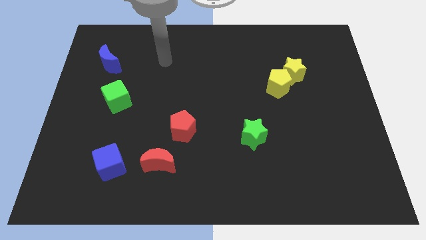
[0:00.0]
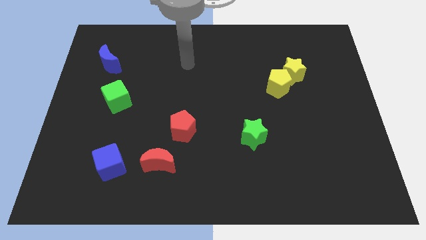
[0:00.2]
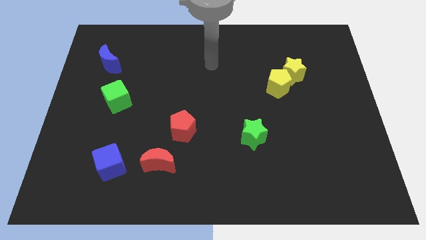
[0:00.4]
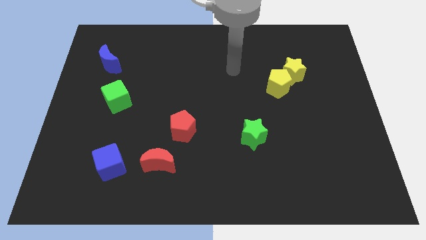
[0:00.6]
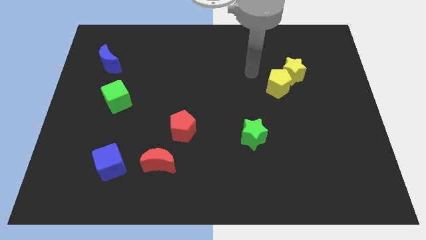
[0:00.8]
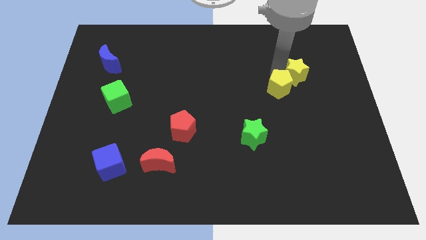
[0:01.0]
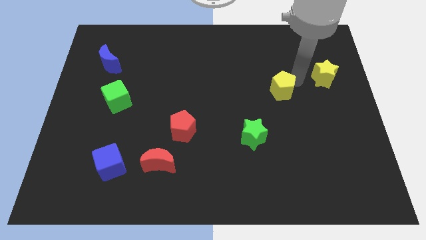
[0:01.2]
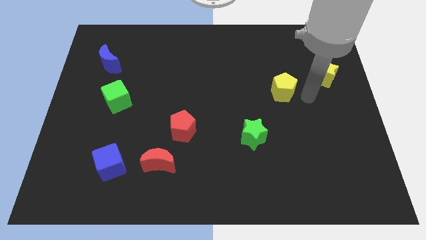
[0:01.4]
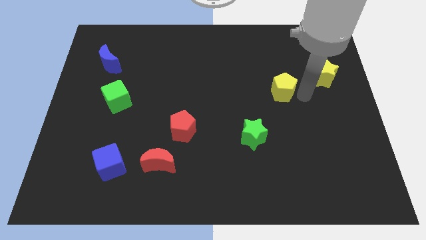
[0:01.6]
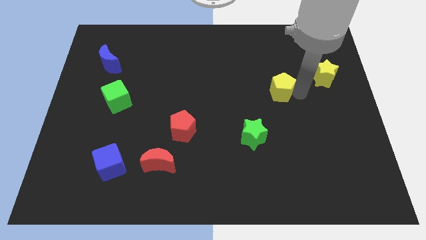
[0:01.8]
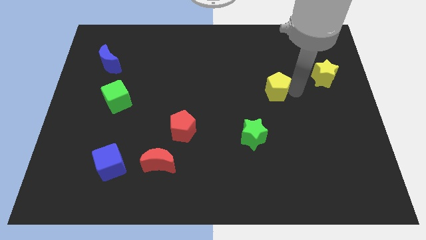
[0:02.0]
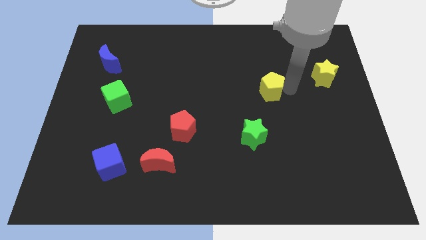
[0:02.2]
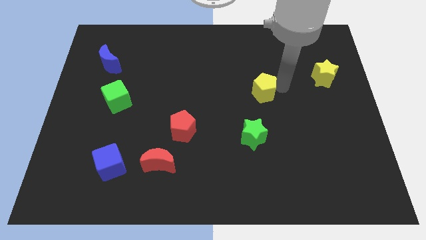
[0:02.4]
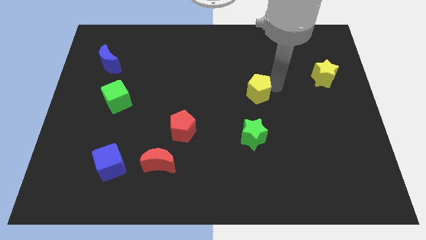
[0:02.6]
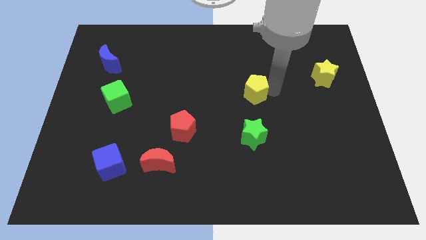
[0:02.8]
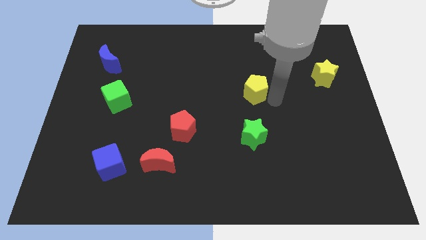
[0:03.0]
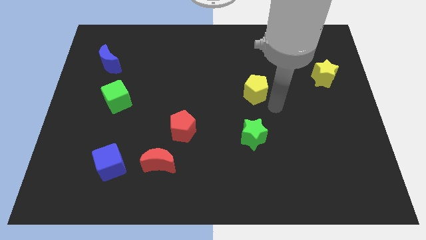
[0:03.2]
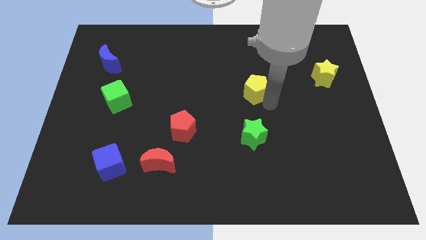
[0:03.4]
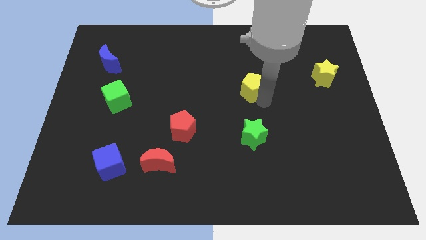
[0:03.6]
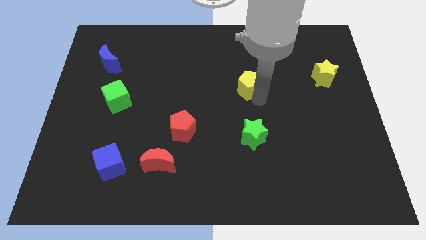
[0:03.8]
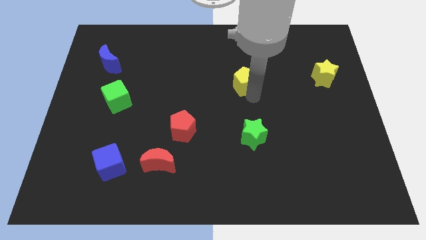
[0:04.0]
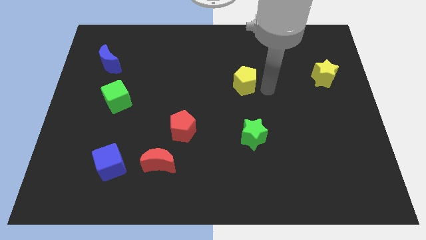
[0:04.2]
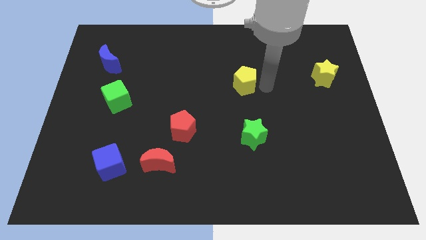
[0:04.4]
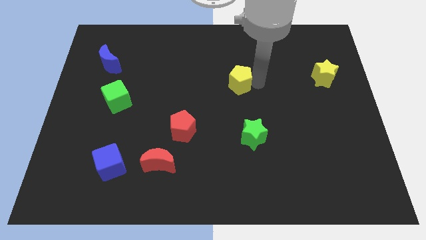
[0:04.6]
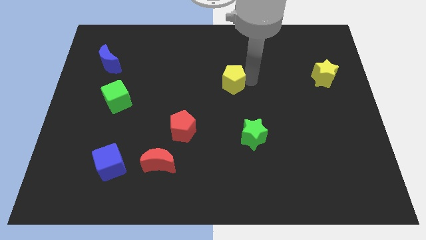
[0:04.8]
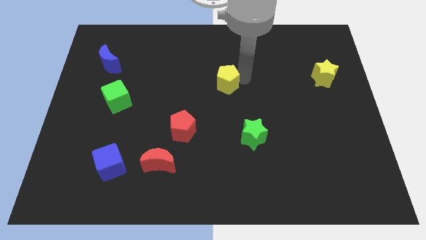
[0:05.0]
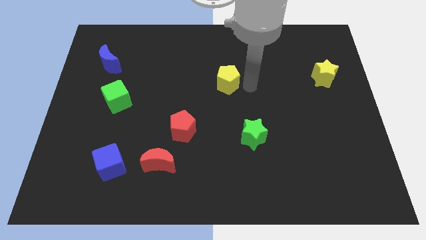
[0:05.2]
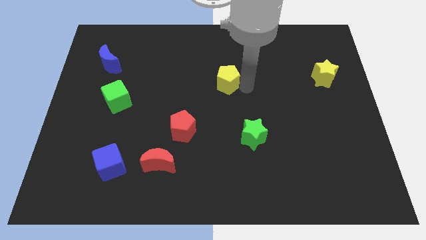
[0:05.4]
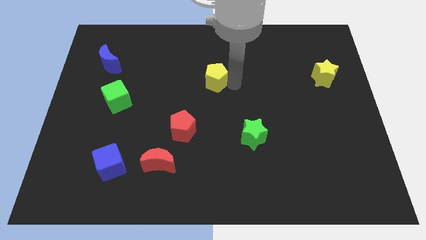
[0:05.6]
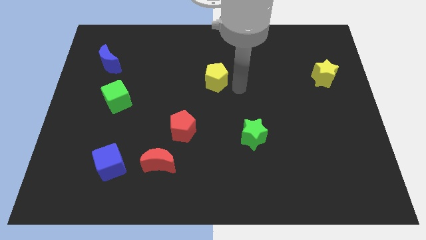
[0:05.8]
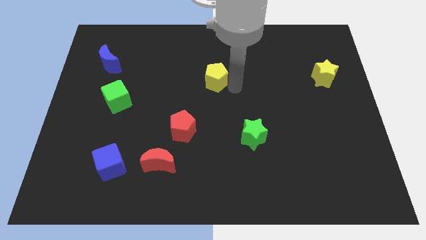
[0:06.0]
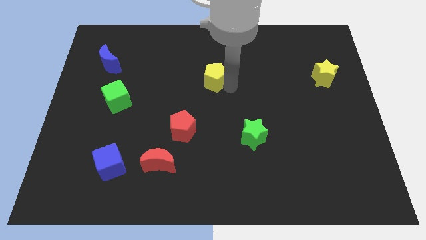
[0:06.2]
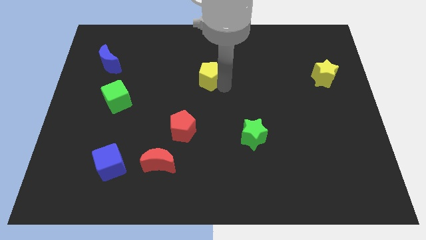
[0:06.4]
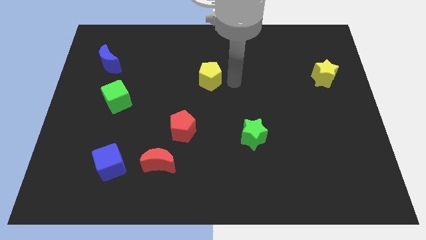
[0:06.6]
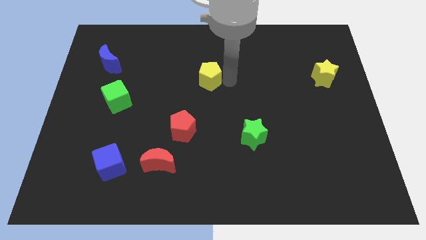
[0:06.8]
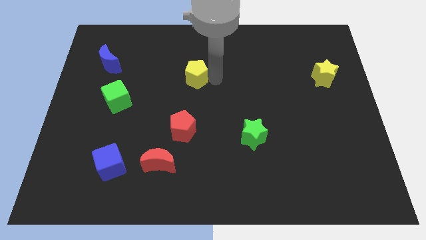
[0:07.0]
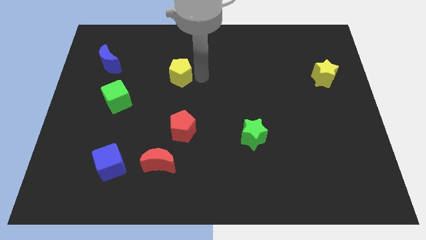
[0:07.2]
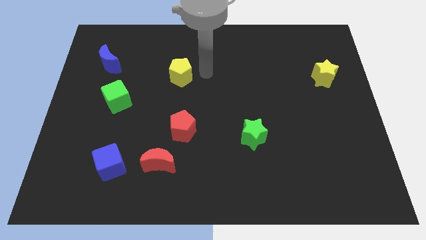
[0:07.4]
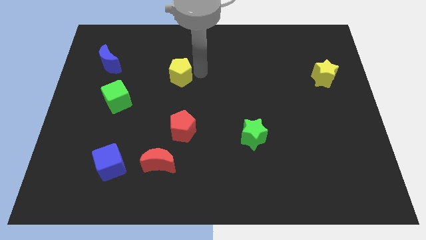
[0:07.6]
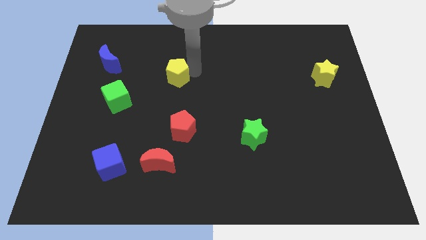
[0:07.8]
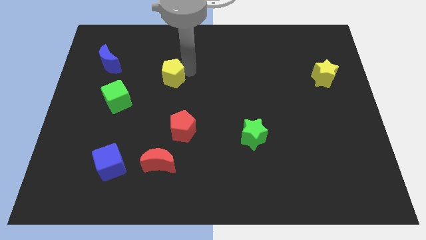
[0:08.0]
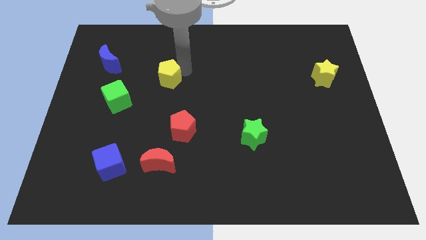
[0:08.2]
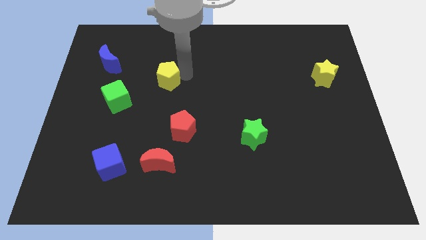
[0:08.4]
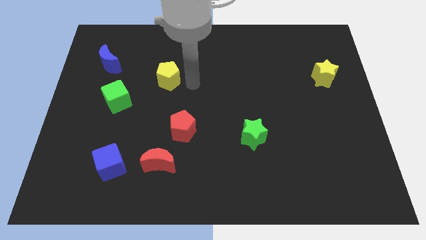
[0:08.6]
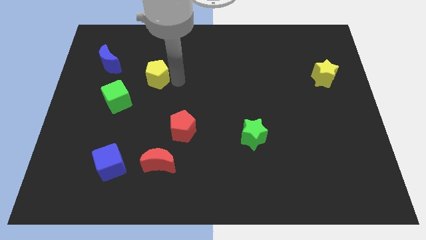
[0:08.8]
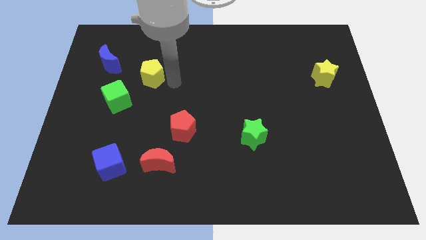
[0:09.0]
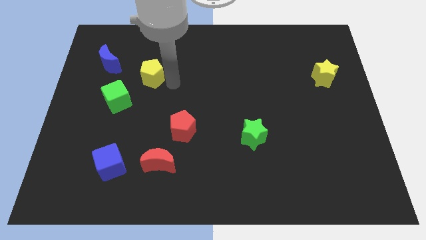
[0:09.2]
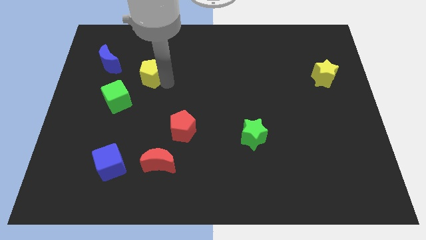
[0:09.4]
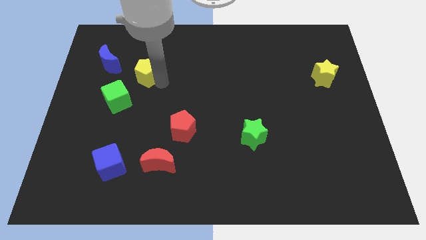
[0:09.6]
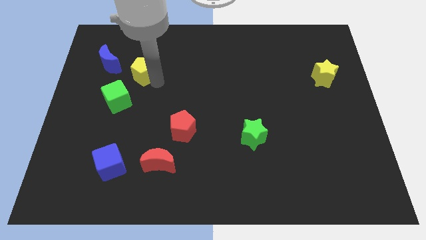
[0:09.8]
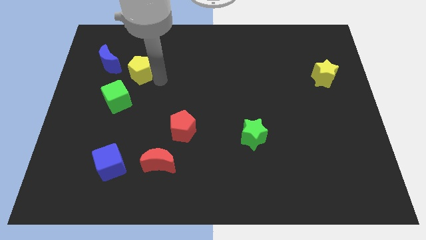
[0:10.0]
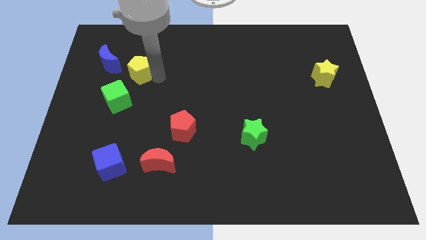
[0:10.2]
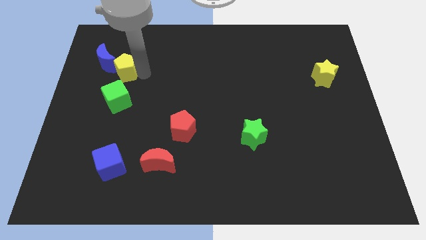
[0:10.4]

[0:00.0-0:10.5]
put the yellow pentagon to the blue moon

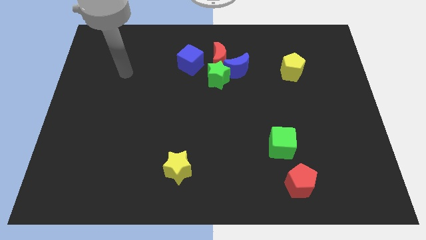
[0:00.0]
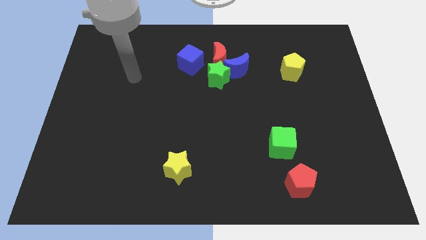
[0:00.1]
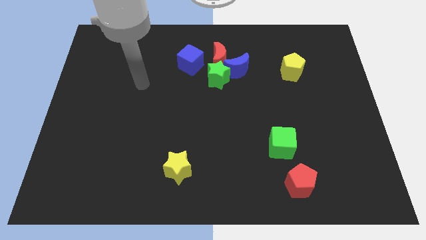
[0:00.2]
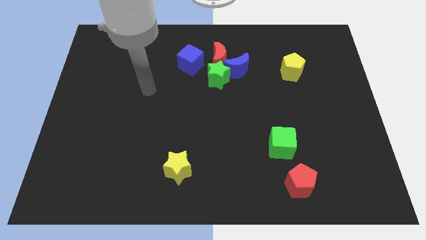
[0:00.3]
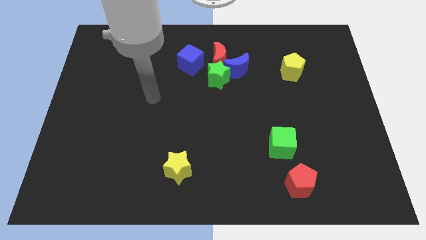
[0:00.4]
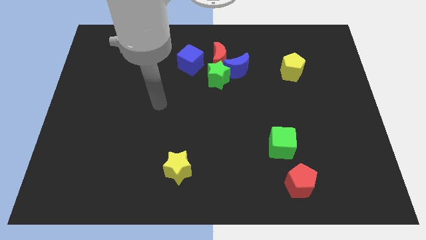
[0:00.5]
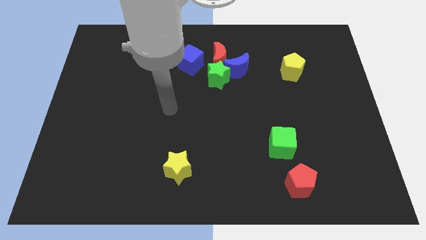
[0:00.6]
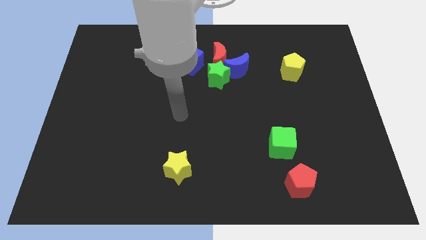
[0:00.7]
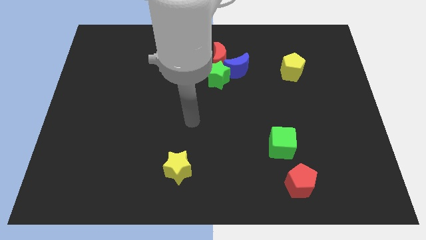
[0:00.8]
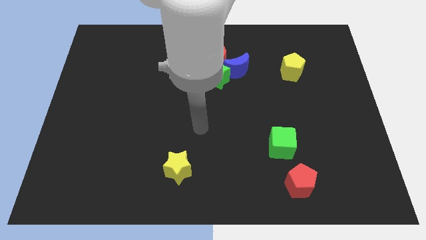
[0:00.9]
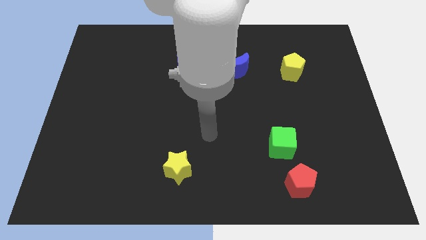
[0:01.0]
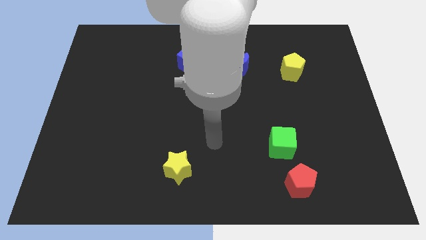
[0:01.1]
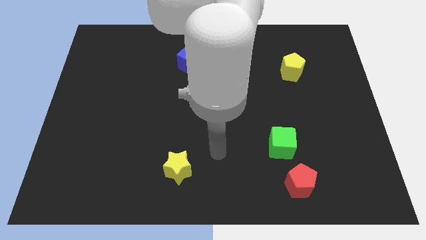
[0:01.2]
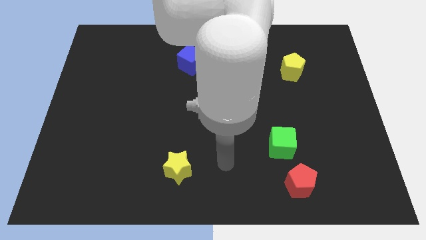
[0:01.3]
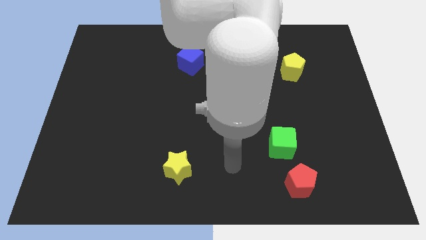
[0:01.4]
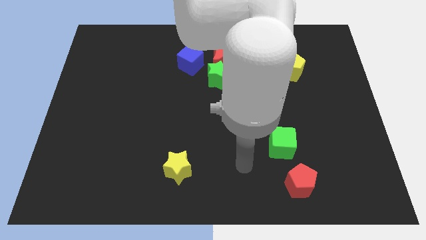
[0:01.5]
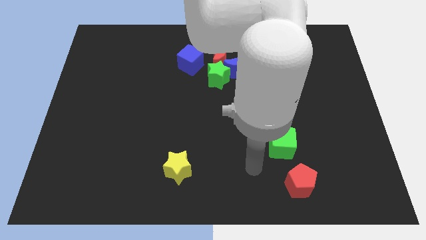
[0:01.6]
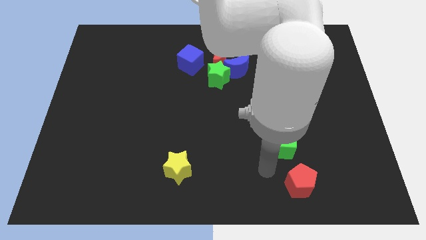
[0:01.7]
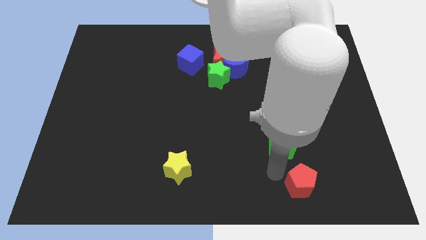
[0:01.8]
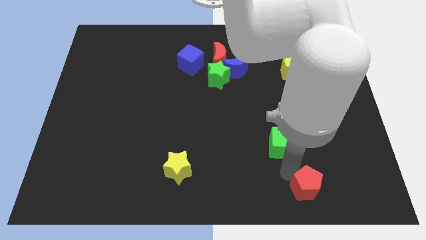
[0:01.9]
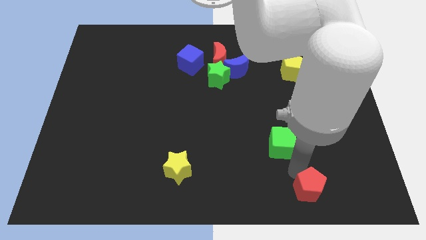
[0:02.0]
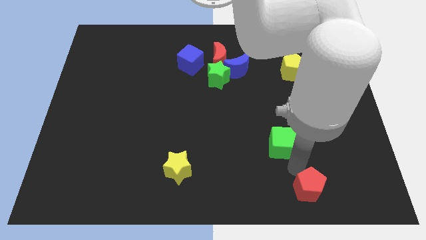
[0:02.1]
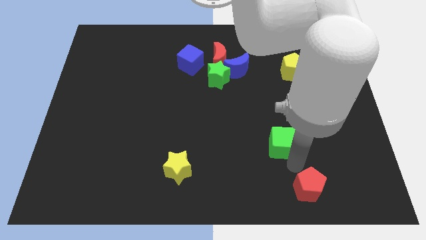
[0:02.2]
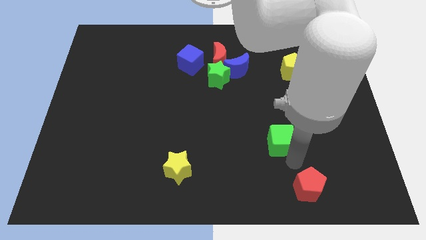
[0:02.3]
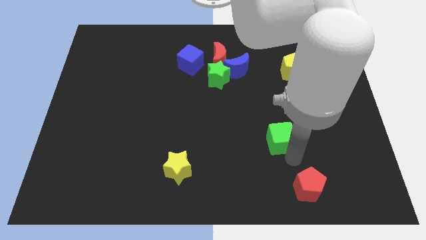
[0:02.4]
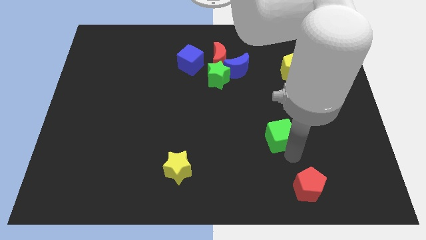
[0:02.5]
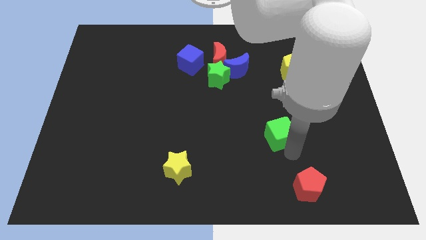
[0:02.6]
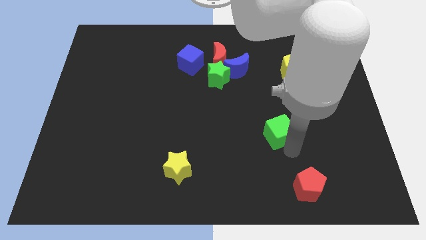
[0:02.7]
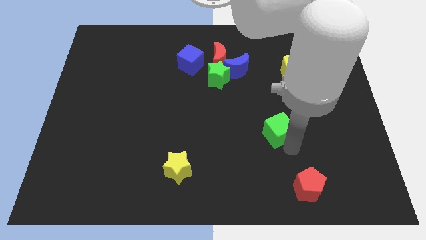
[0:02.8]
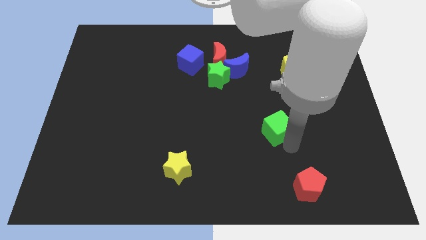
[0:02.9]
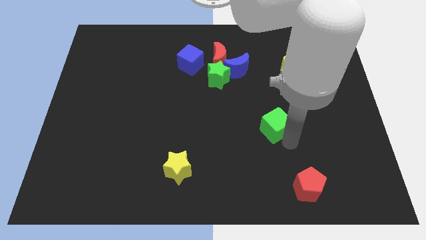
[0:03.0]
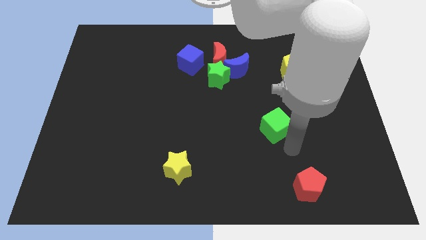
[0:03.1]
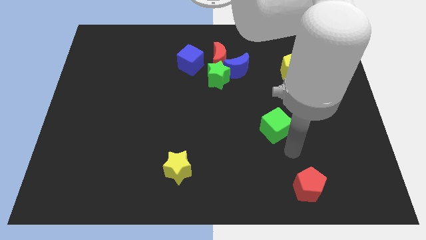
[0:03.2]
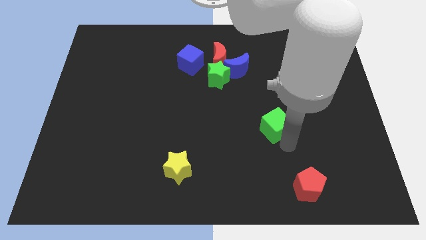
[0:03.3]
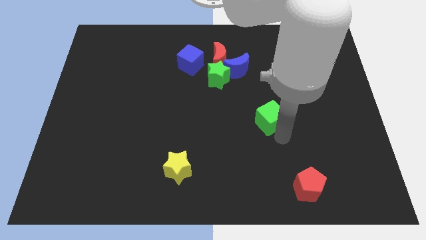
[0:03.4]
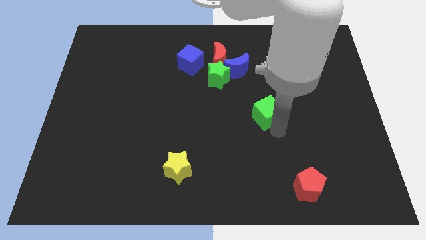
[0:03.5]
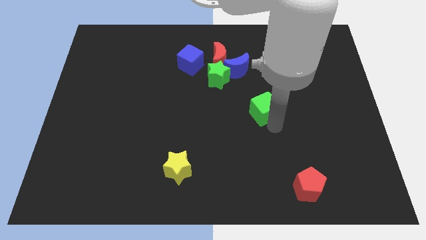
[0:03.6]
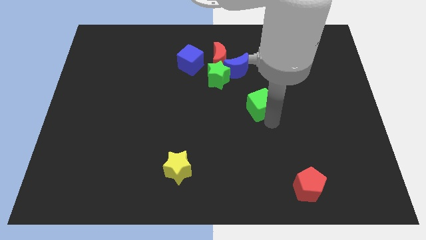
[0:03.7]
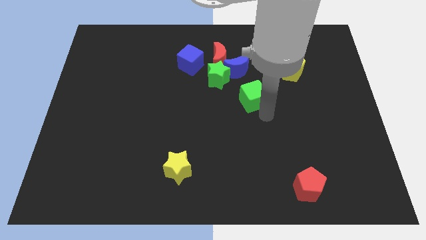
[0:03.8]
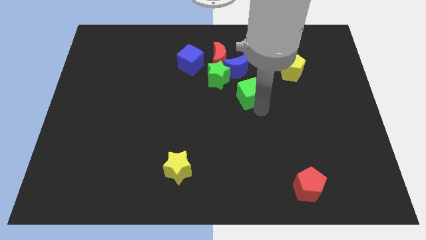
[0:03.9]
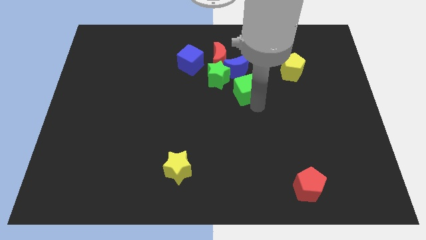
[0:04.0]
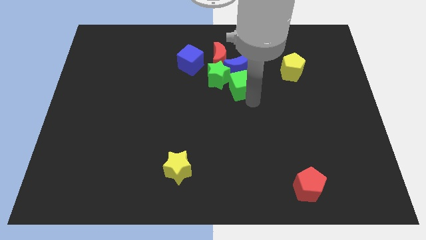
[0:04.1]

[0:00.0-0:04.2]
slide the green cube next to the blue moon
